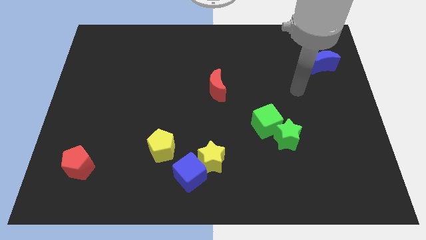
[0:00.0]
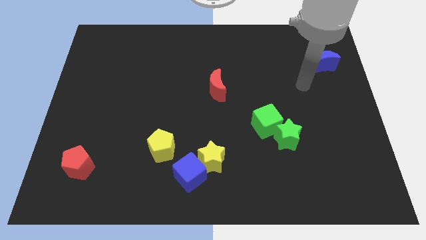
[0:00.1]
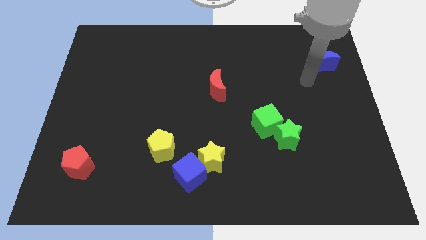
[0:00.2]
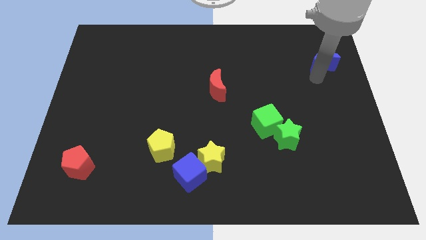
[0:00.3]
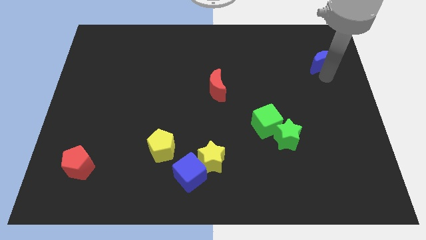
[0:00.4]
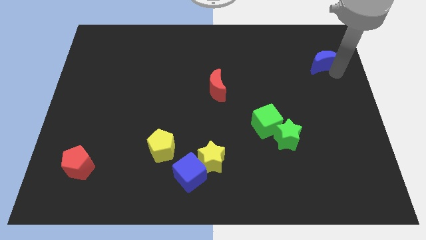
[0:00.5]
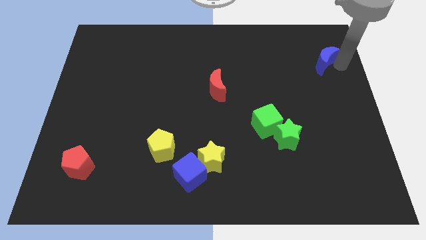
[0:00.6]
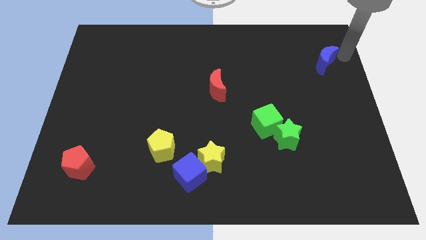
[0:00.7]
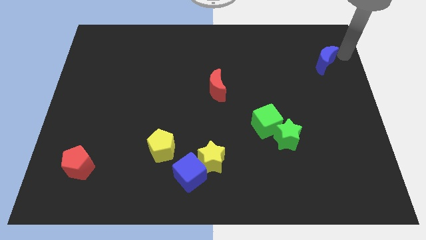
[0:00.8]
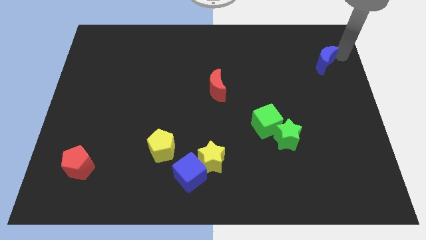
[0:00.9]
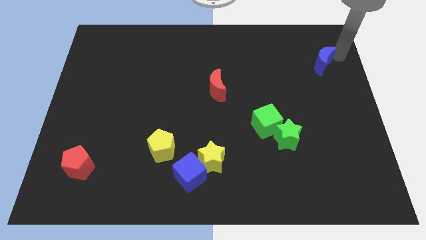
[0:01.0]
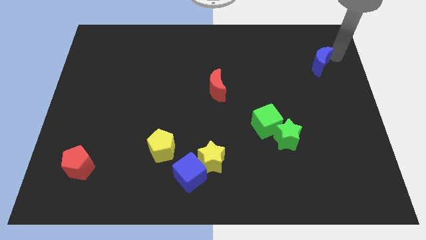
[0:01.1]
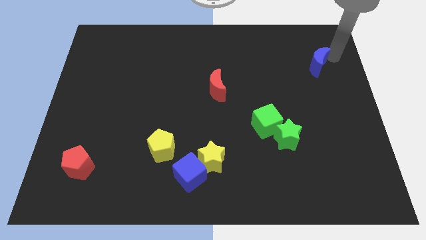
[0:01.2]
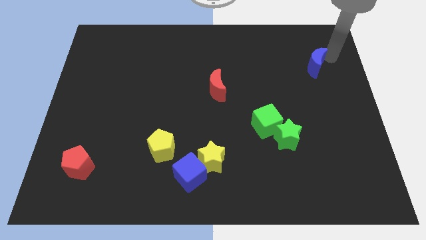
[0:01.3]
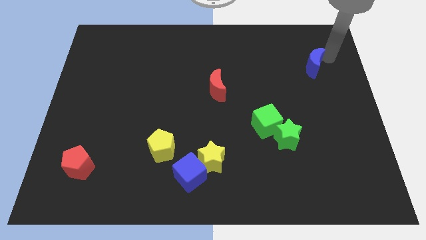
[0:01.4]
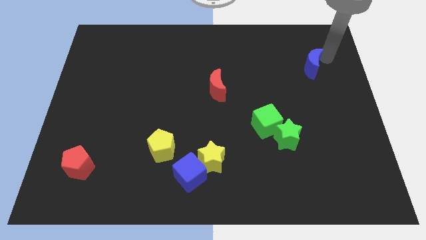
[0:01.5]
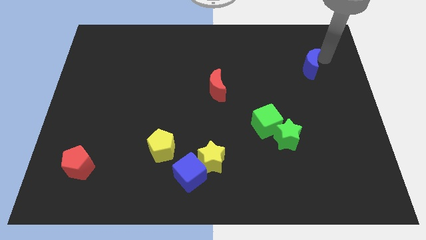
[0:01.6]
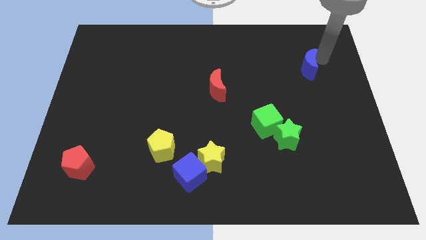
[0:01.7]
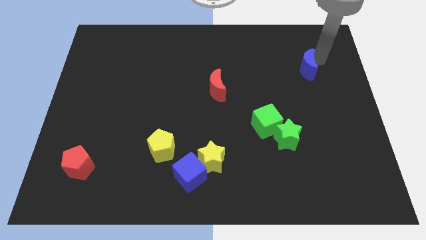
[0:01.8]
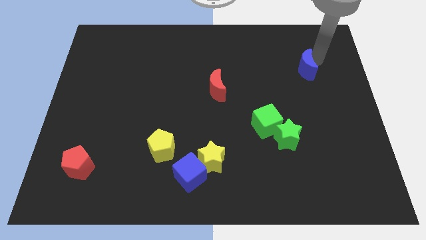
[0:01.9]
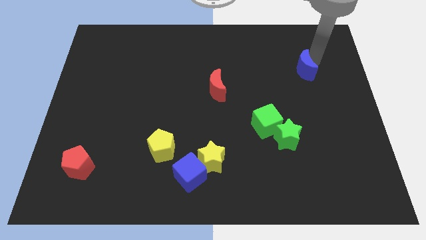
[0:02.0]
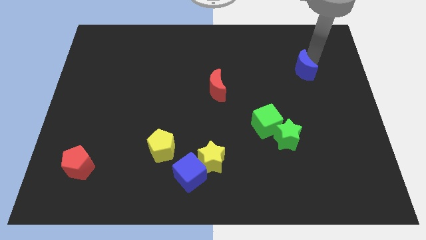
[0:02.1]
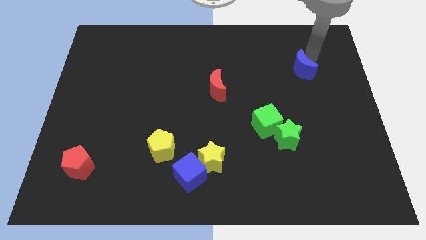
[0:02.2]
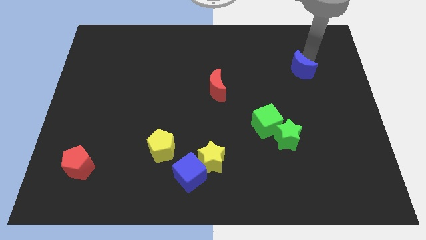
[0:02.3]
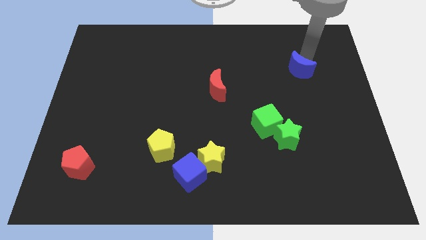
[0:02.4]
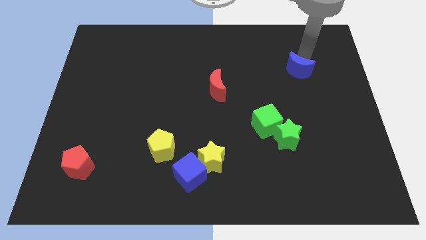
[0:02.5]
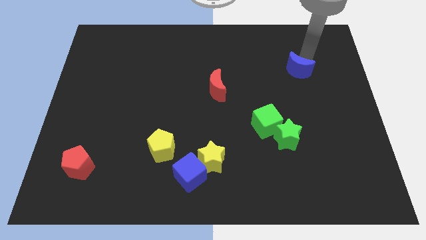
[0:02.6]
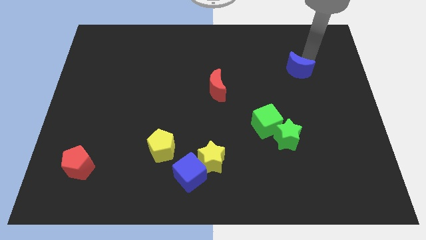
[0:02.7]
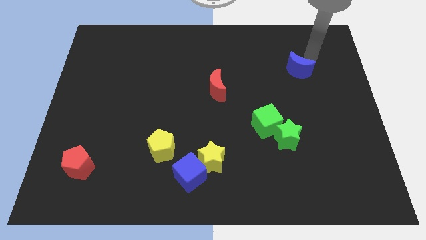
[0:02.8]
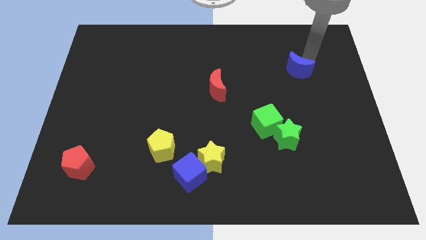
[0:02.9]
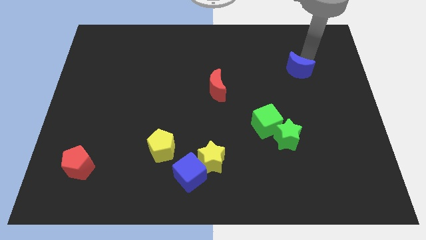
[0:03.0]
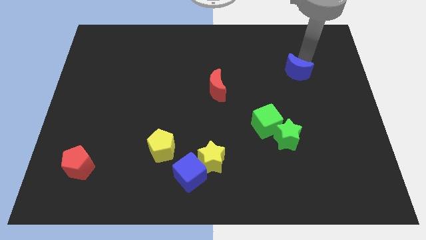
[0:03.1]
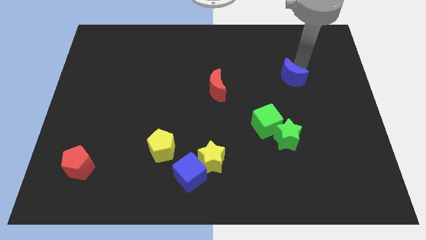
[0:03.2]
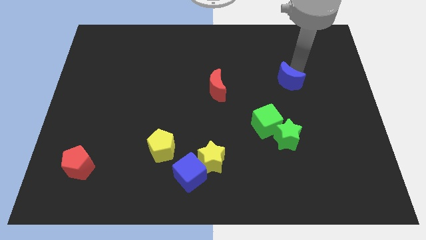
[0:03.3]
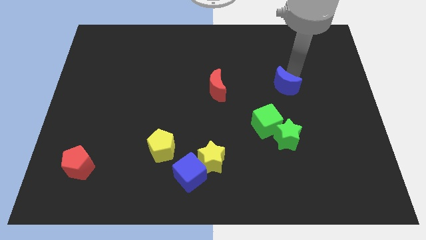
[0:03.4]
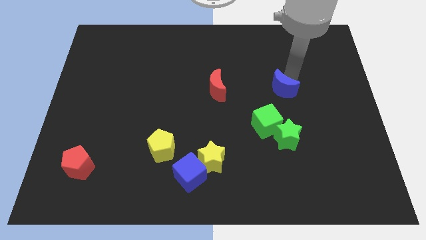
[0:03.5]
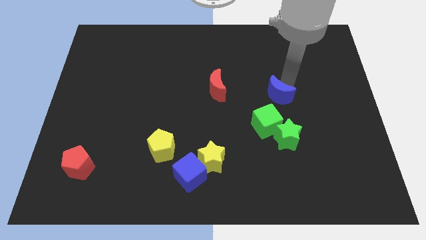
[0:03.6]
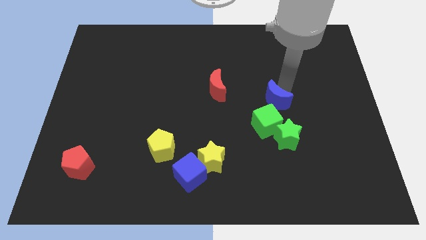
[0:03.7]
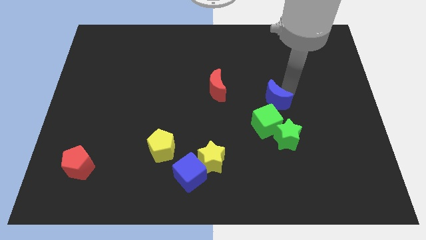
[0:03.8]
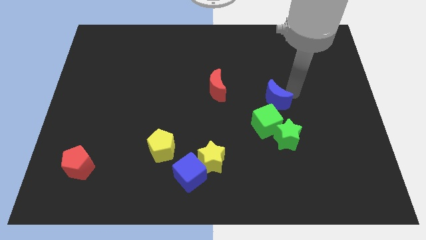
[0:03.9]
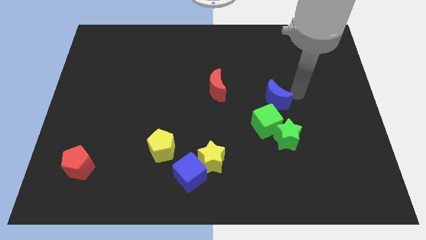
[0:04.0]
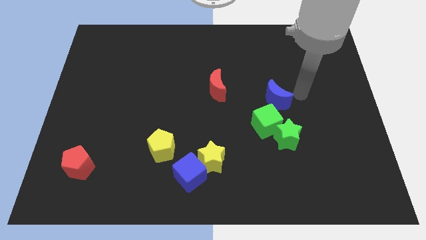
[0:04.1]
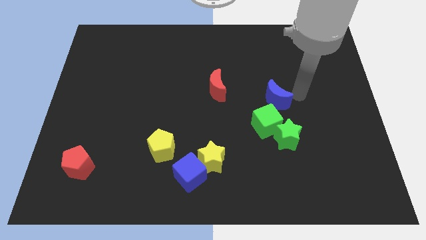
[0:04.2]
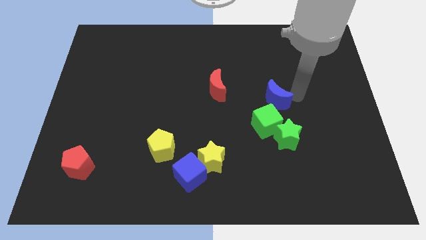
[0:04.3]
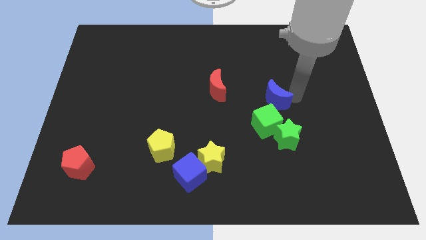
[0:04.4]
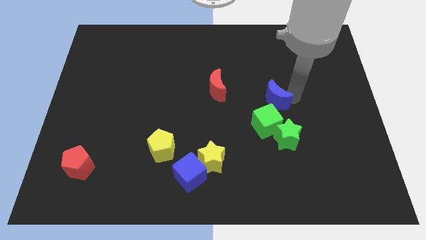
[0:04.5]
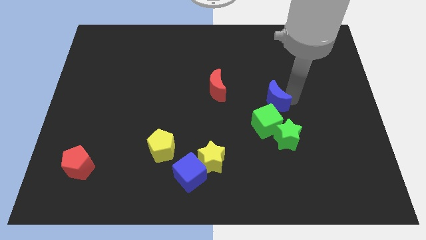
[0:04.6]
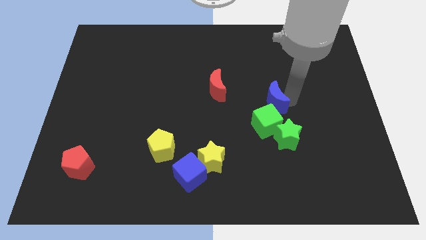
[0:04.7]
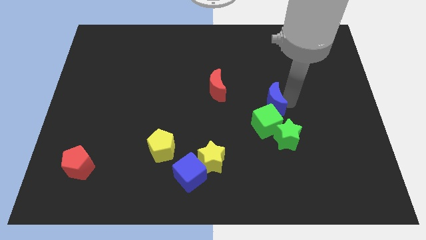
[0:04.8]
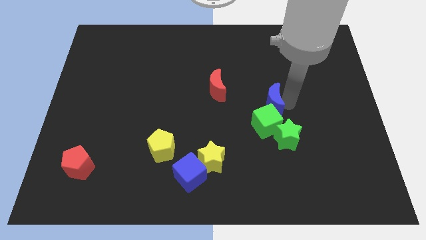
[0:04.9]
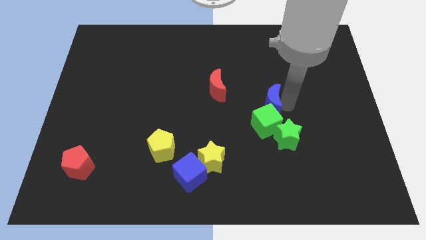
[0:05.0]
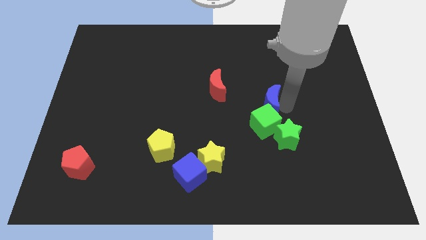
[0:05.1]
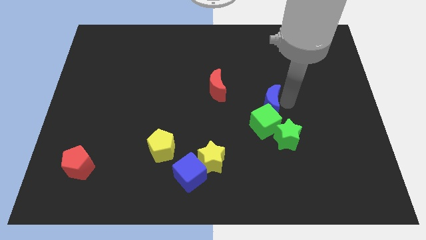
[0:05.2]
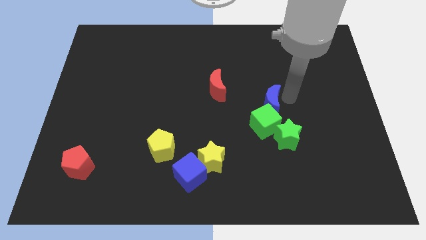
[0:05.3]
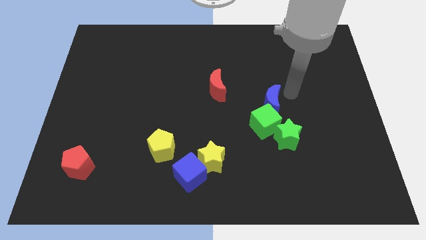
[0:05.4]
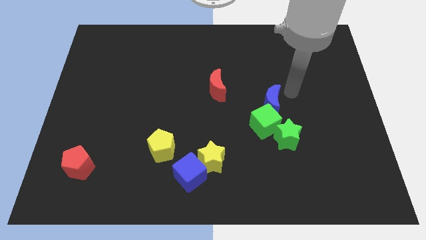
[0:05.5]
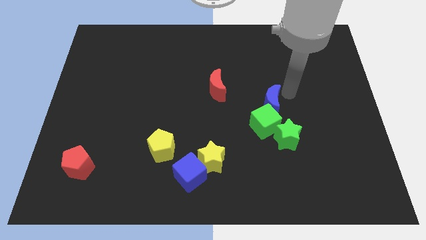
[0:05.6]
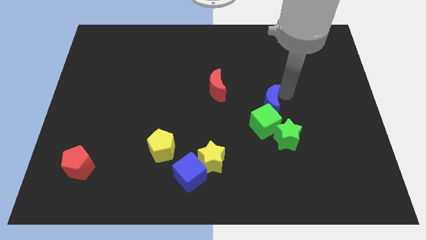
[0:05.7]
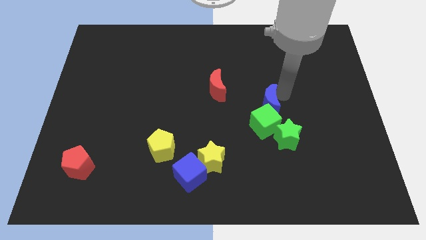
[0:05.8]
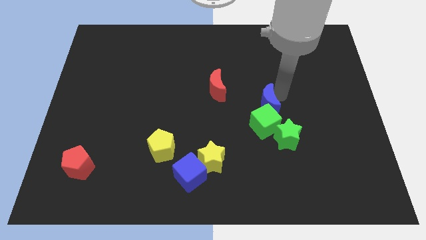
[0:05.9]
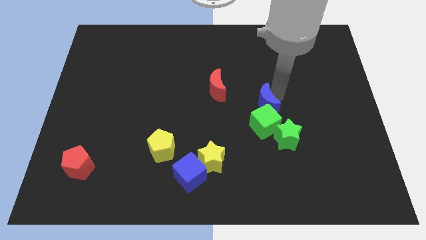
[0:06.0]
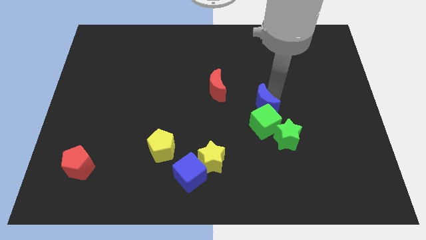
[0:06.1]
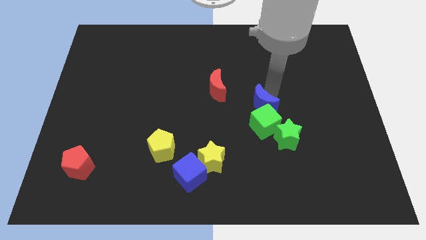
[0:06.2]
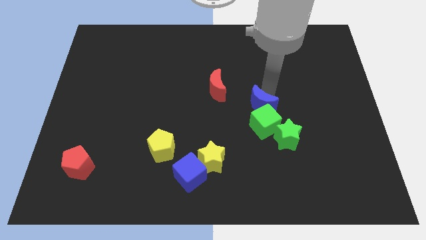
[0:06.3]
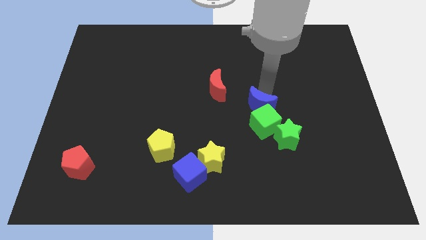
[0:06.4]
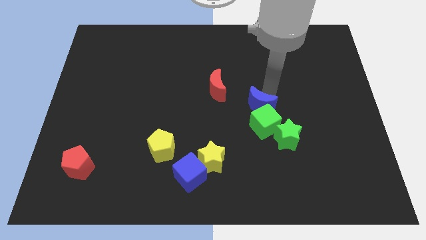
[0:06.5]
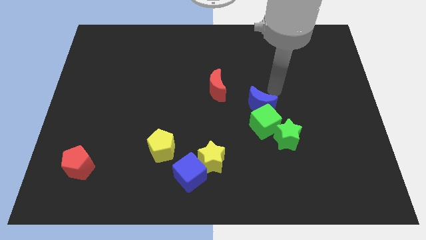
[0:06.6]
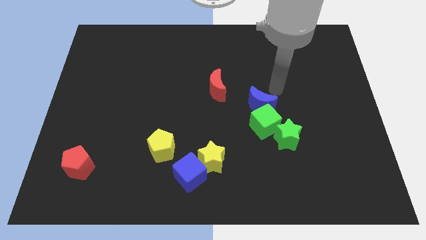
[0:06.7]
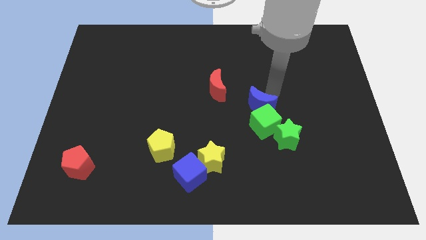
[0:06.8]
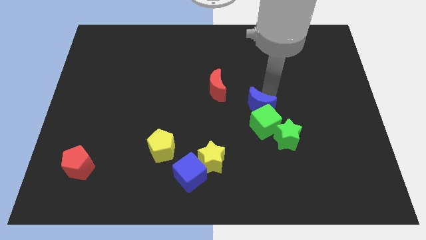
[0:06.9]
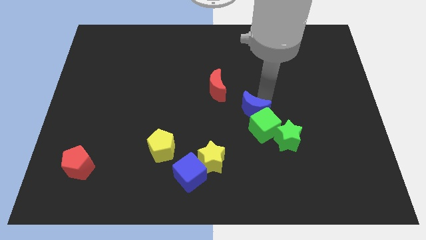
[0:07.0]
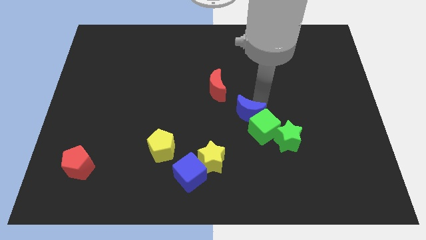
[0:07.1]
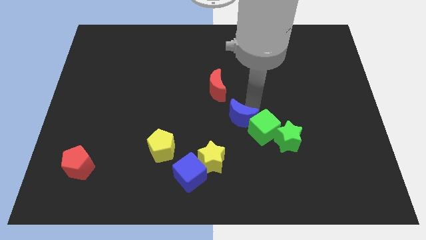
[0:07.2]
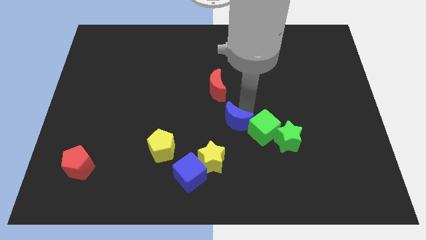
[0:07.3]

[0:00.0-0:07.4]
put the blue moon to the top right of the yellow star
